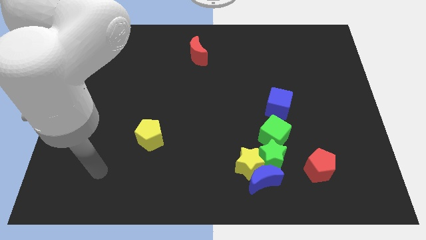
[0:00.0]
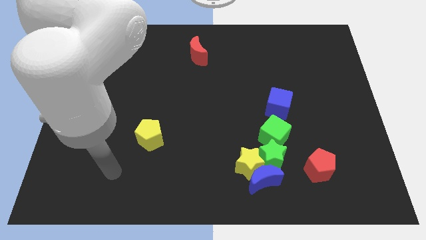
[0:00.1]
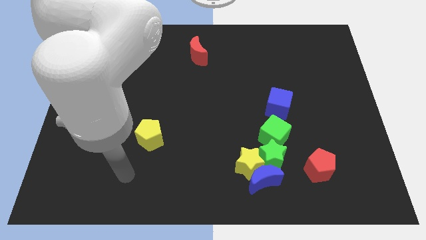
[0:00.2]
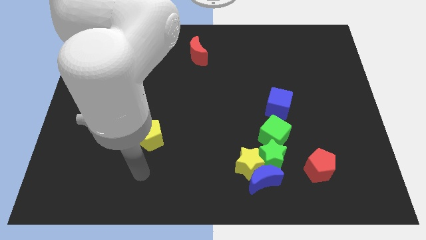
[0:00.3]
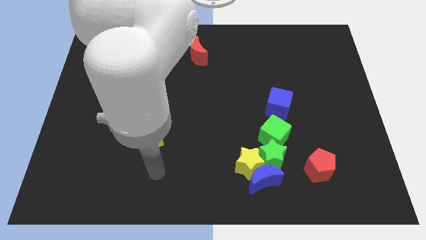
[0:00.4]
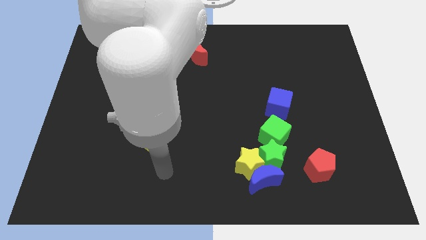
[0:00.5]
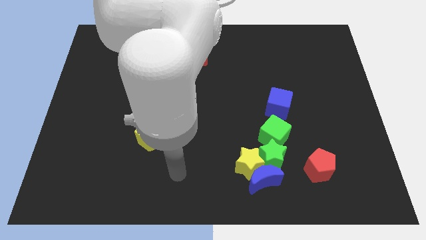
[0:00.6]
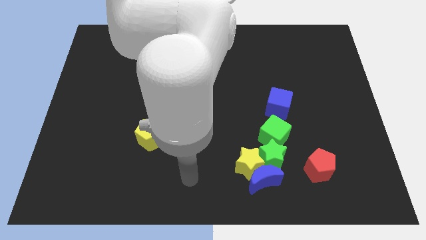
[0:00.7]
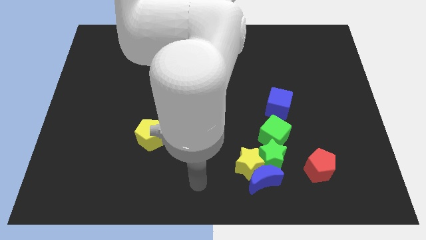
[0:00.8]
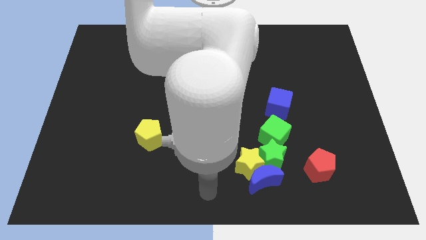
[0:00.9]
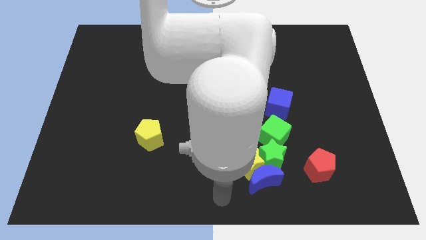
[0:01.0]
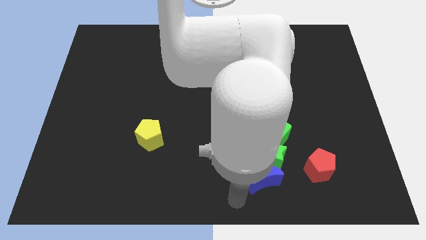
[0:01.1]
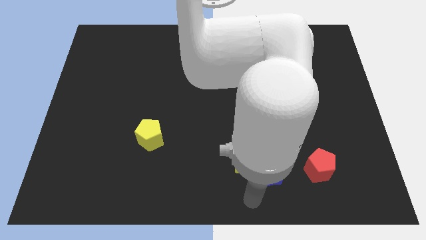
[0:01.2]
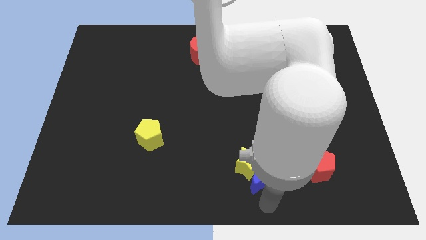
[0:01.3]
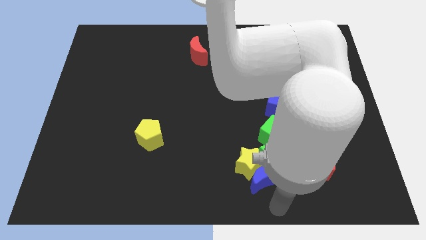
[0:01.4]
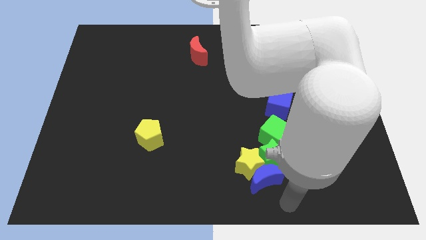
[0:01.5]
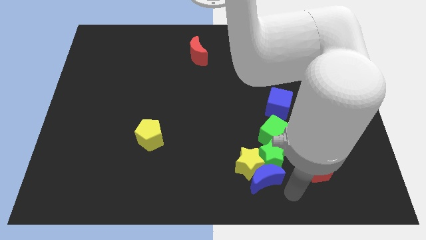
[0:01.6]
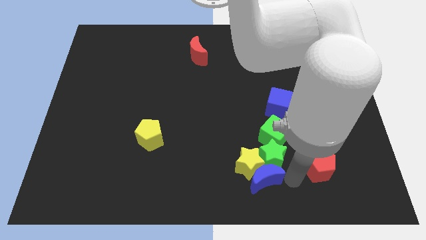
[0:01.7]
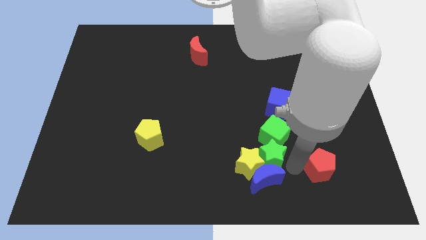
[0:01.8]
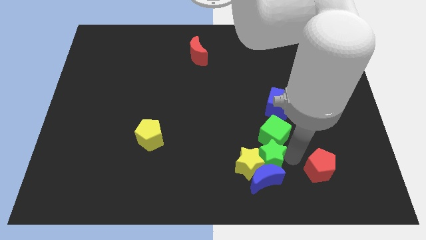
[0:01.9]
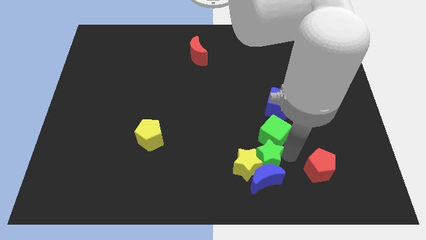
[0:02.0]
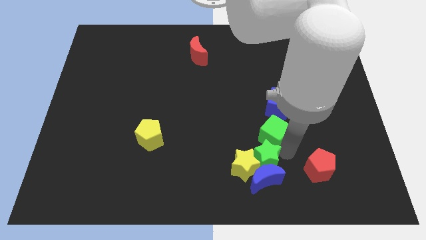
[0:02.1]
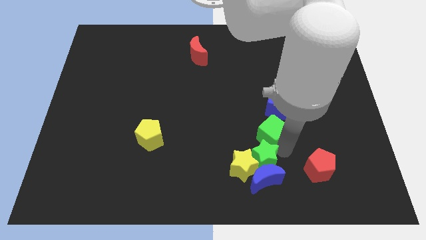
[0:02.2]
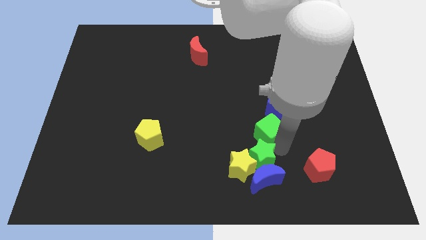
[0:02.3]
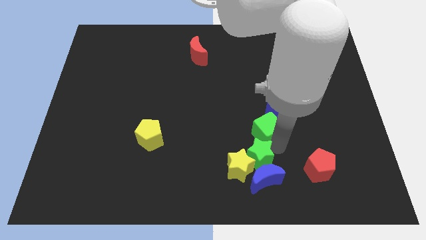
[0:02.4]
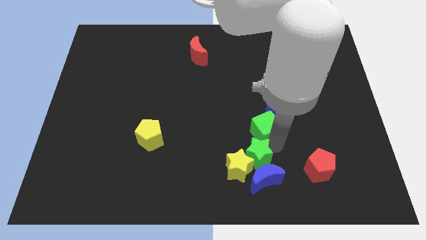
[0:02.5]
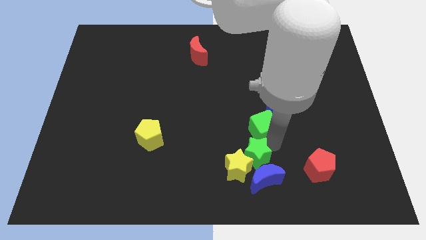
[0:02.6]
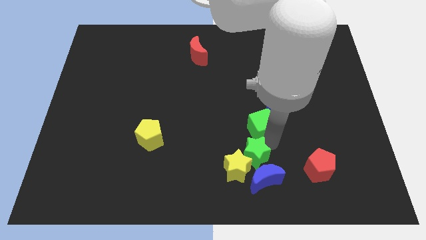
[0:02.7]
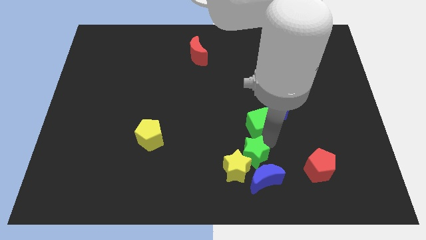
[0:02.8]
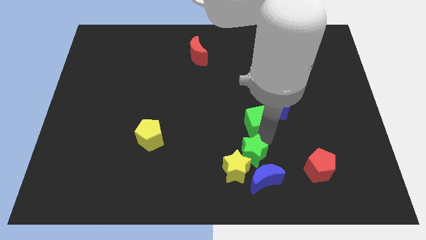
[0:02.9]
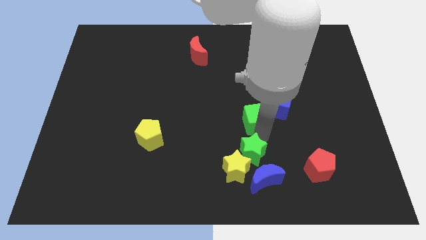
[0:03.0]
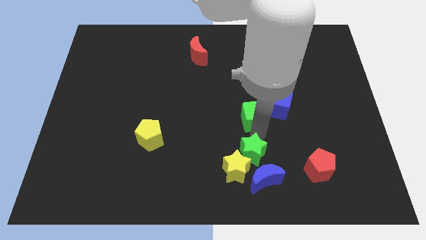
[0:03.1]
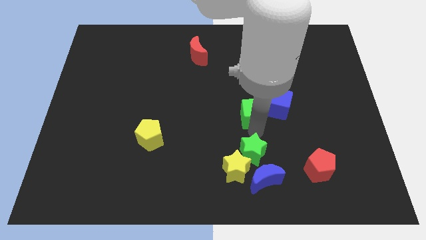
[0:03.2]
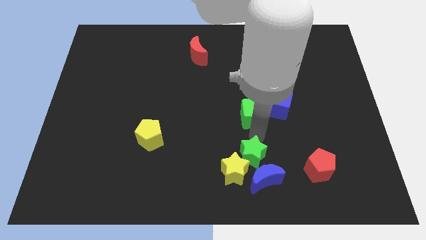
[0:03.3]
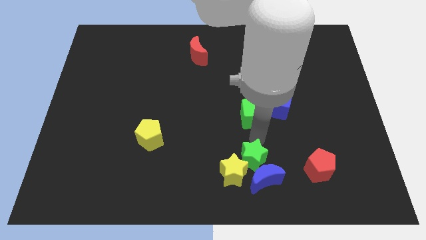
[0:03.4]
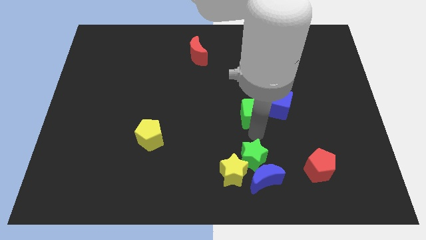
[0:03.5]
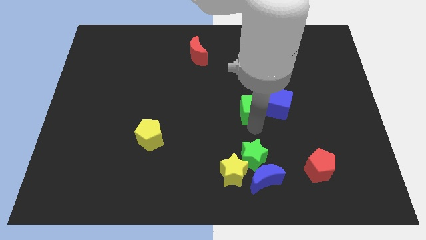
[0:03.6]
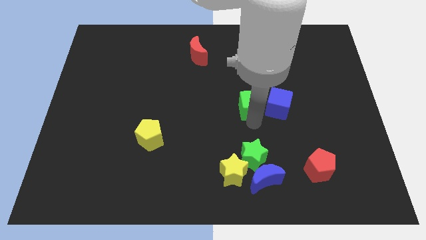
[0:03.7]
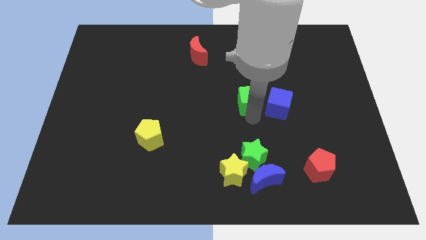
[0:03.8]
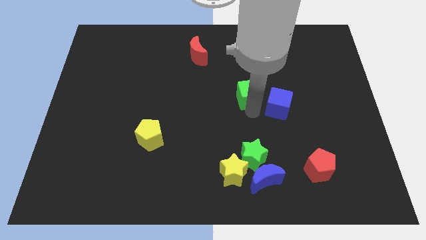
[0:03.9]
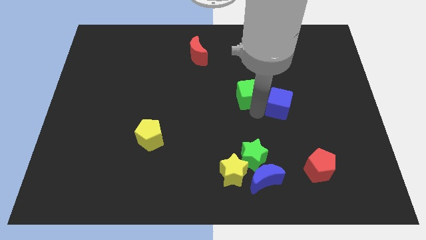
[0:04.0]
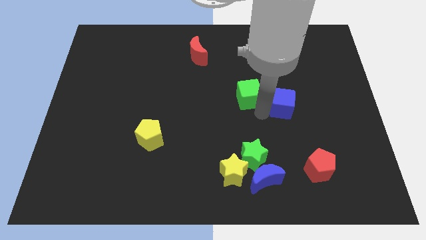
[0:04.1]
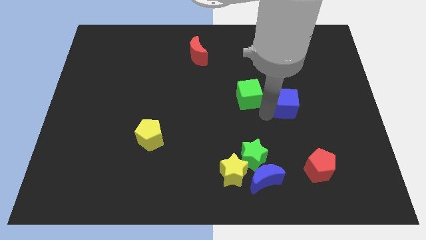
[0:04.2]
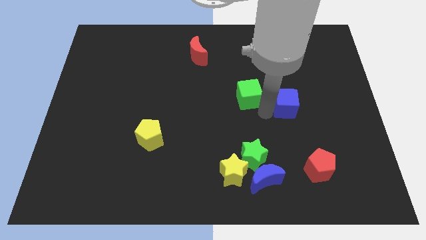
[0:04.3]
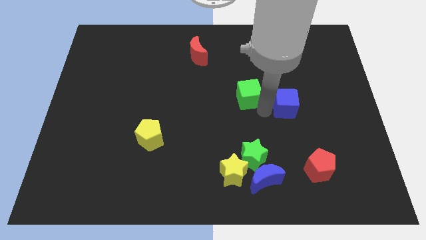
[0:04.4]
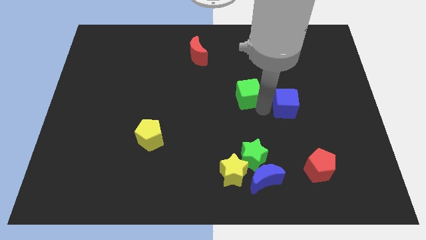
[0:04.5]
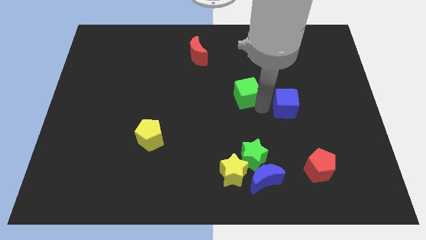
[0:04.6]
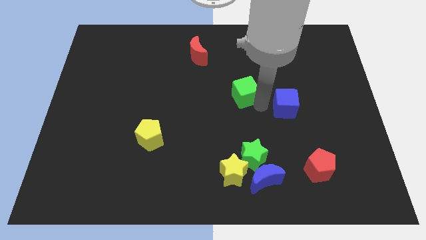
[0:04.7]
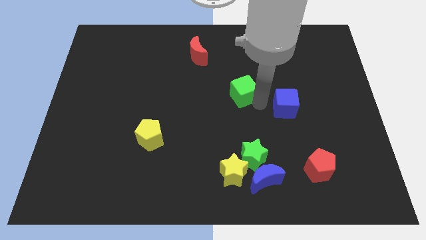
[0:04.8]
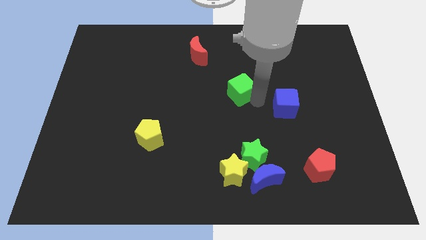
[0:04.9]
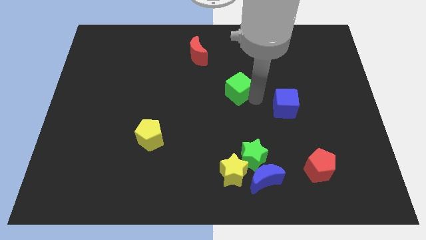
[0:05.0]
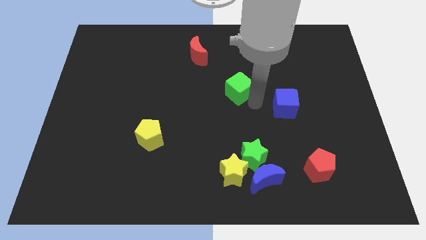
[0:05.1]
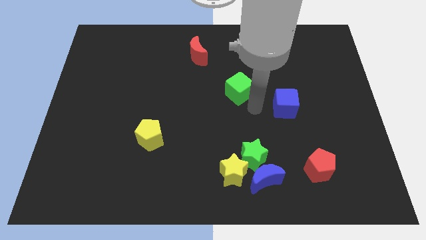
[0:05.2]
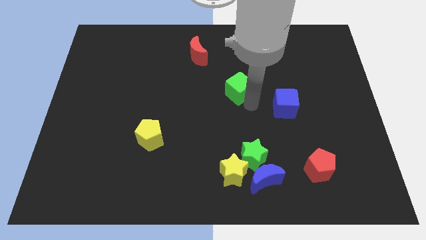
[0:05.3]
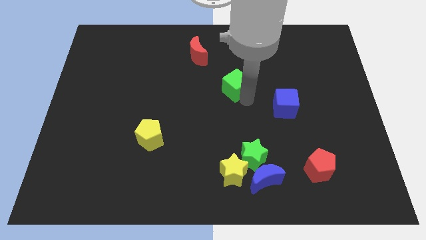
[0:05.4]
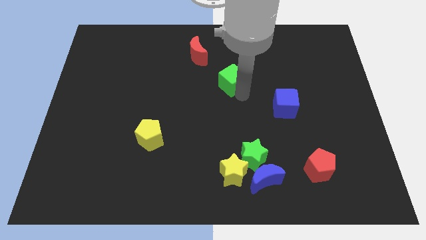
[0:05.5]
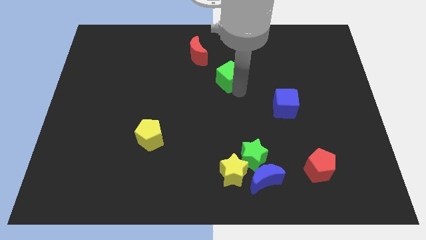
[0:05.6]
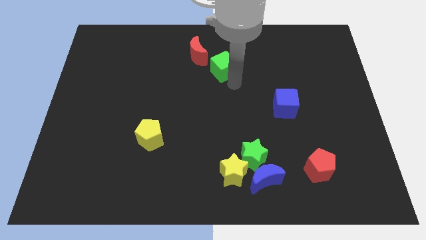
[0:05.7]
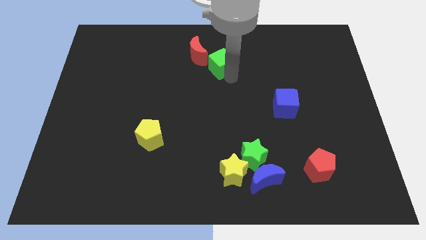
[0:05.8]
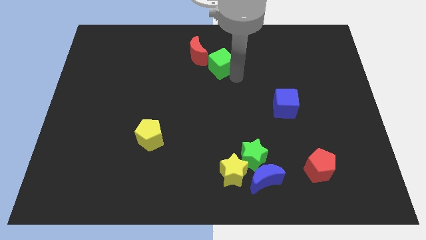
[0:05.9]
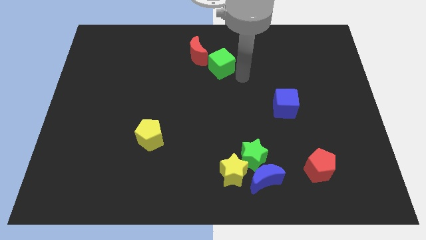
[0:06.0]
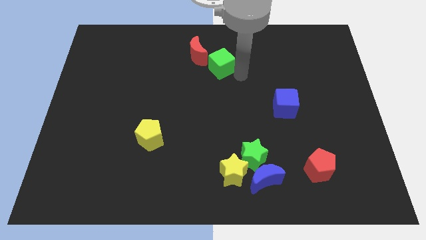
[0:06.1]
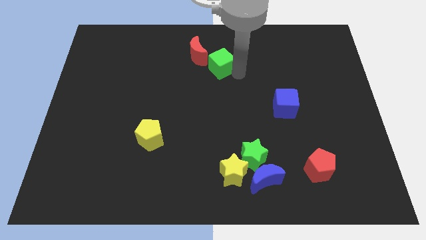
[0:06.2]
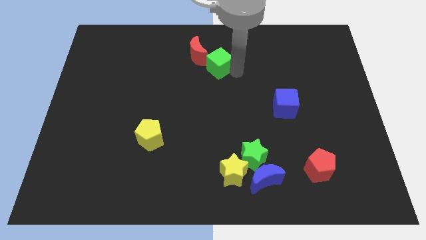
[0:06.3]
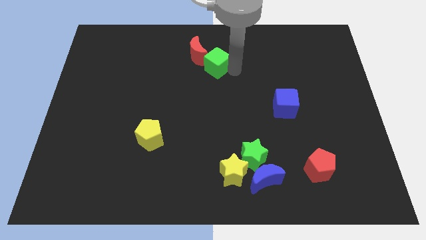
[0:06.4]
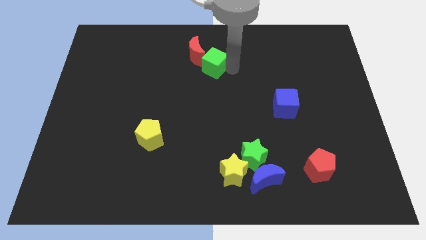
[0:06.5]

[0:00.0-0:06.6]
put the green cube towards the red moon

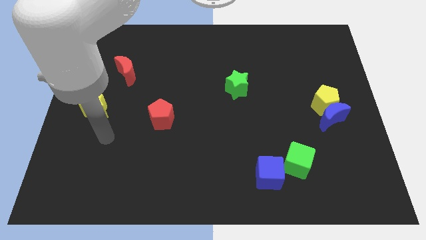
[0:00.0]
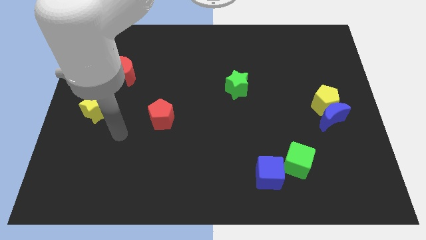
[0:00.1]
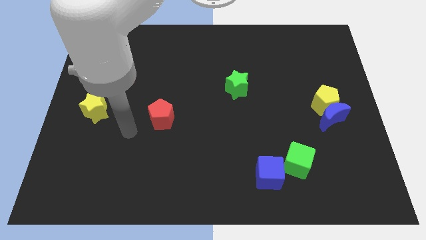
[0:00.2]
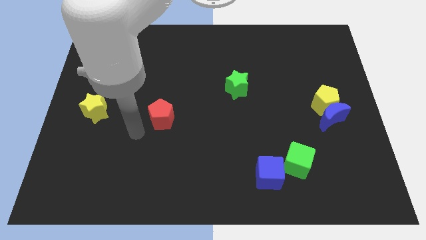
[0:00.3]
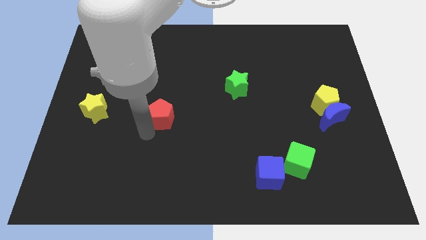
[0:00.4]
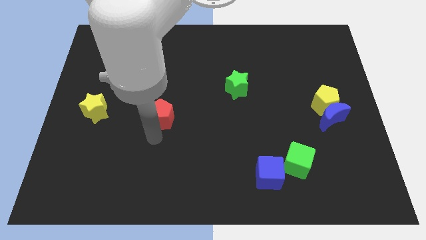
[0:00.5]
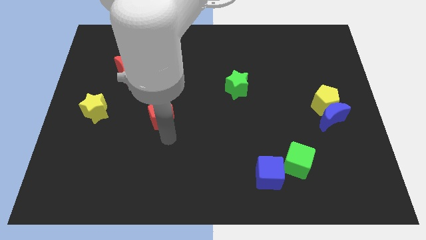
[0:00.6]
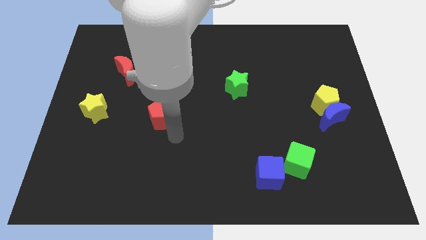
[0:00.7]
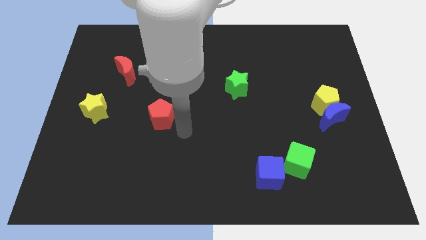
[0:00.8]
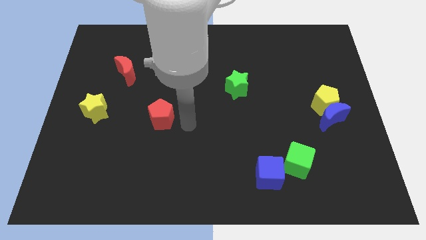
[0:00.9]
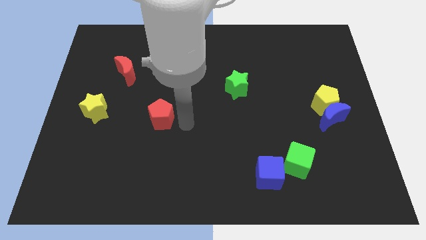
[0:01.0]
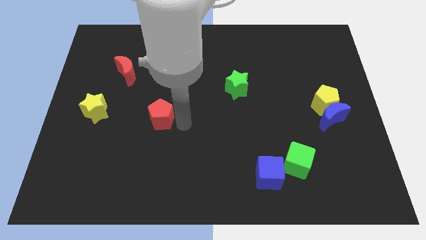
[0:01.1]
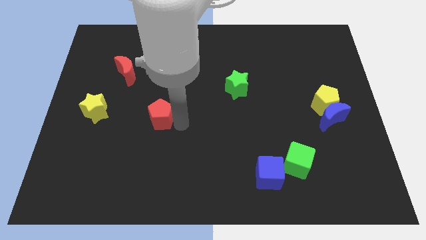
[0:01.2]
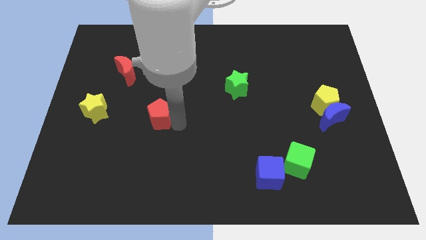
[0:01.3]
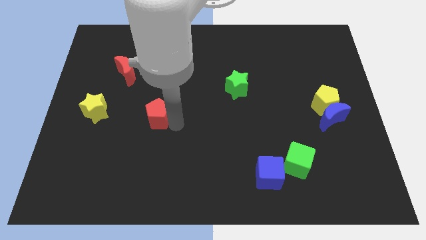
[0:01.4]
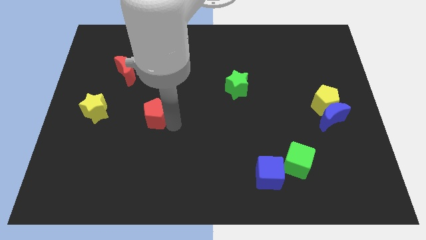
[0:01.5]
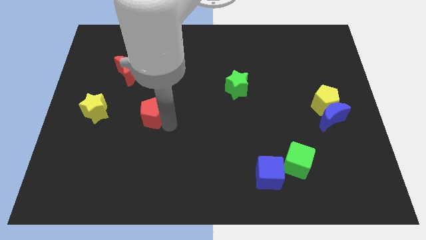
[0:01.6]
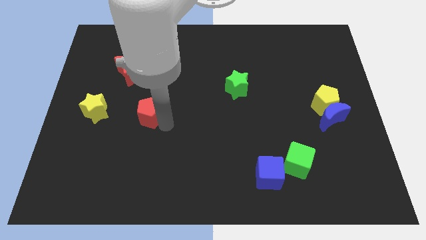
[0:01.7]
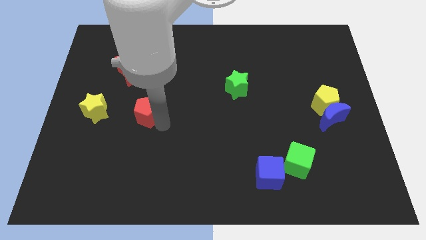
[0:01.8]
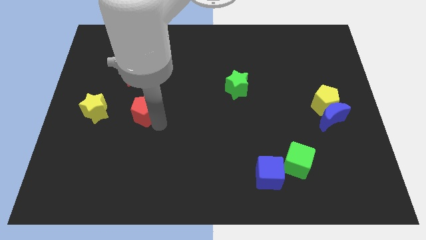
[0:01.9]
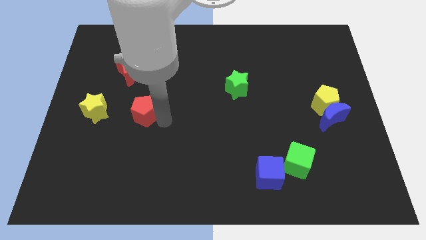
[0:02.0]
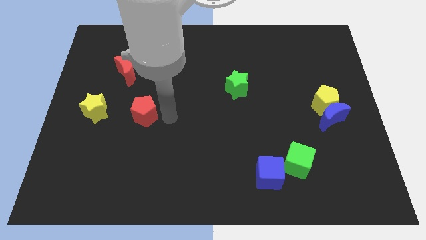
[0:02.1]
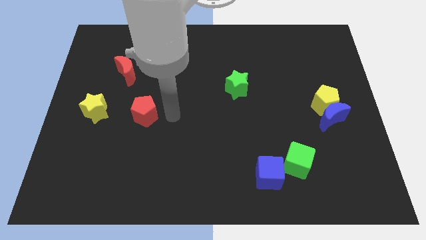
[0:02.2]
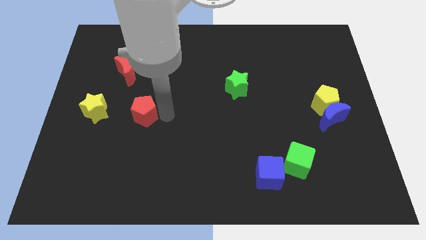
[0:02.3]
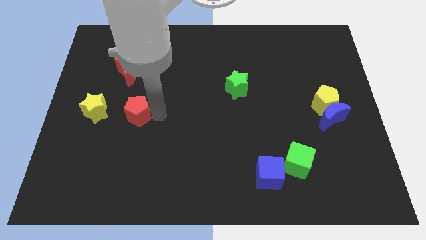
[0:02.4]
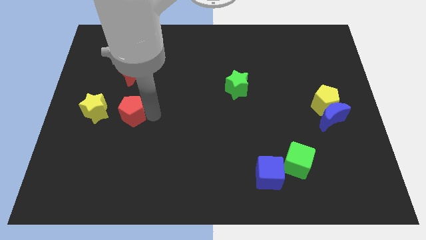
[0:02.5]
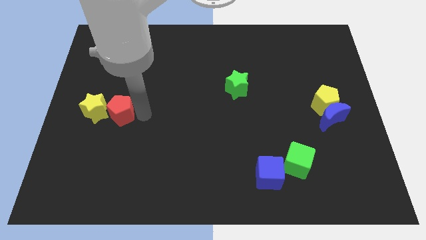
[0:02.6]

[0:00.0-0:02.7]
put the red pentagon to the yellow star
